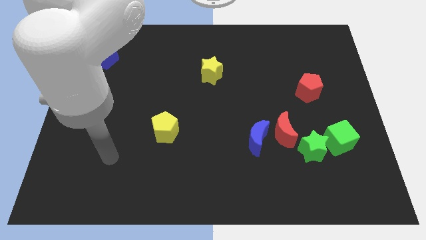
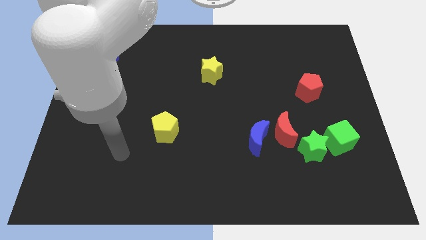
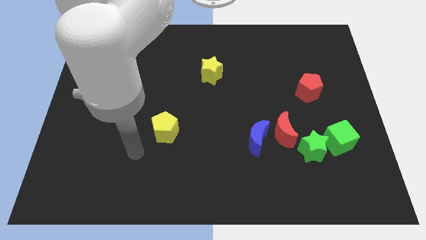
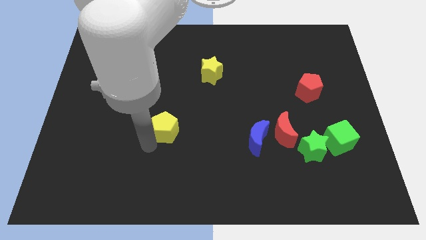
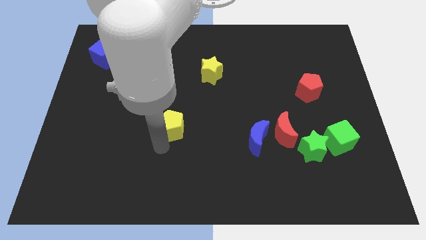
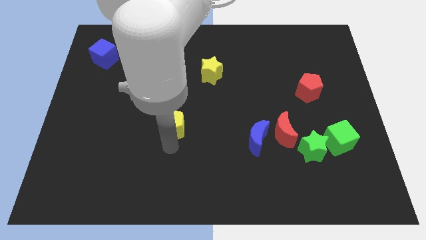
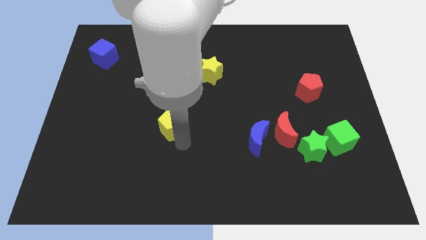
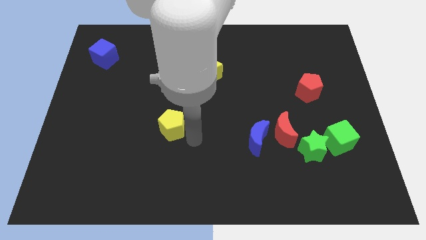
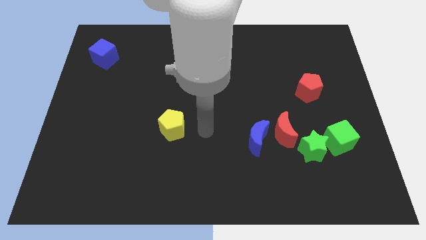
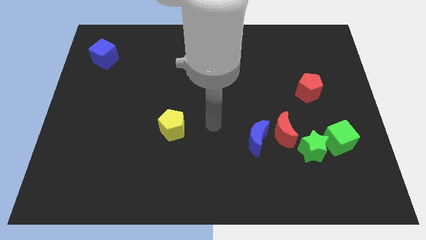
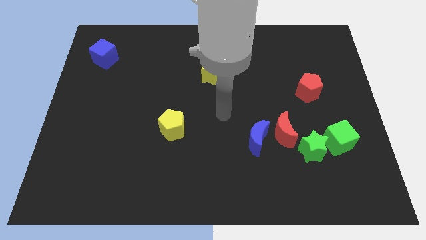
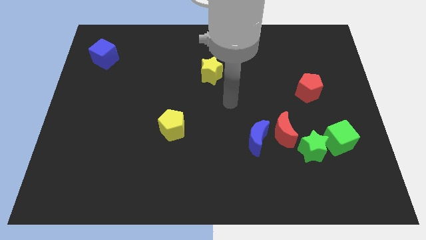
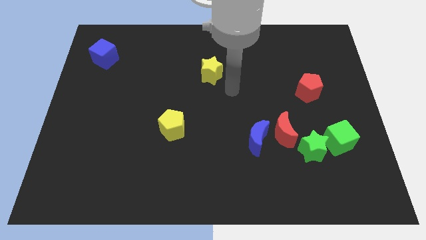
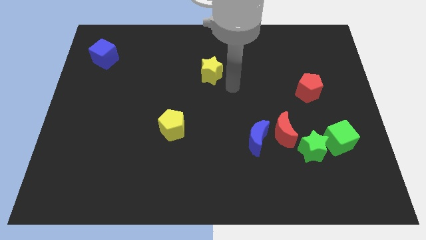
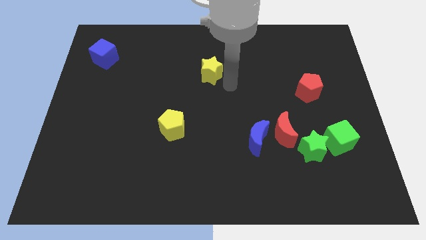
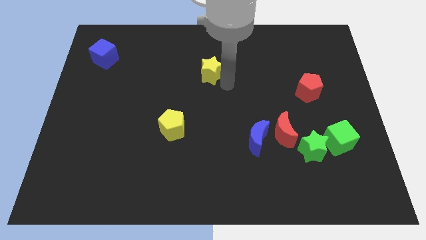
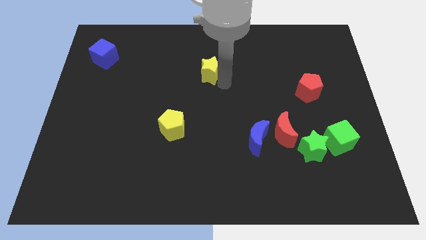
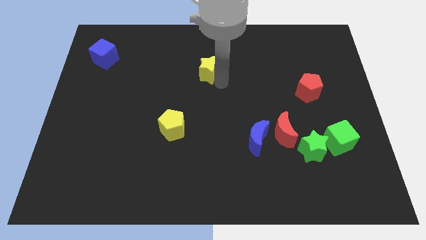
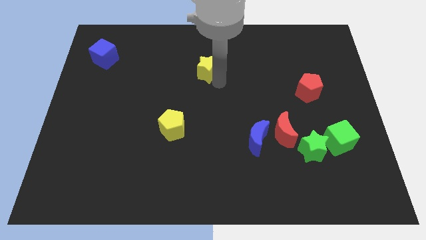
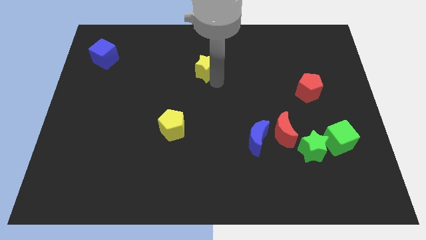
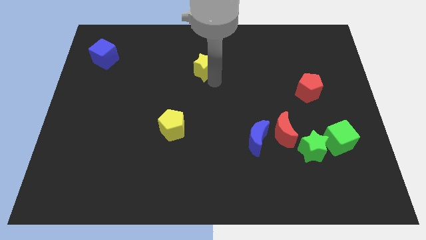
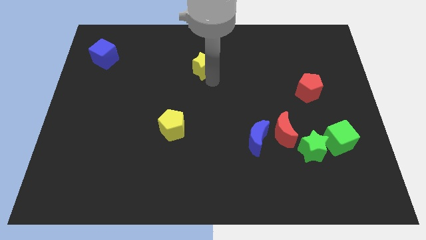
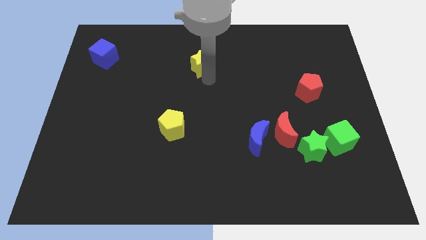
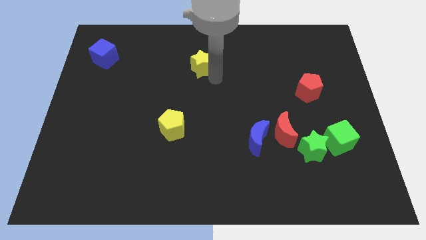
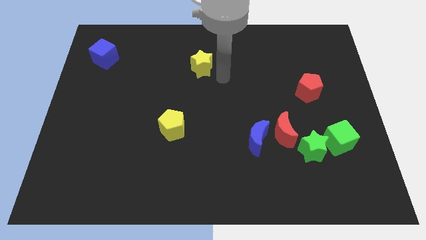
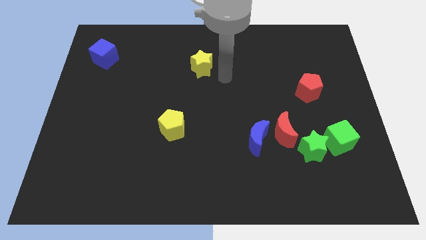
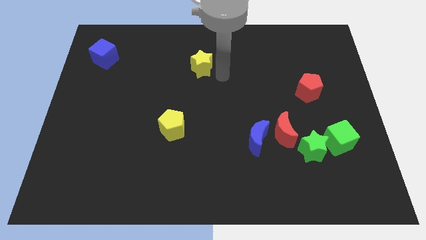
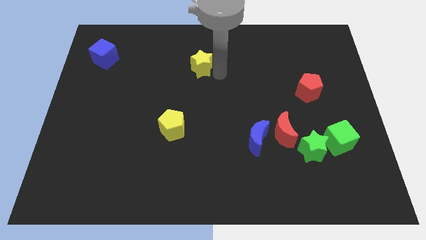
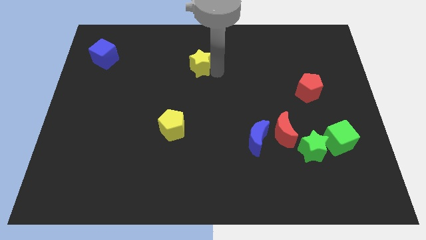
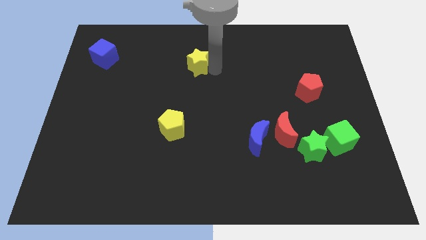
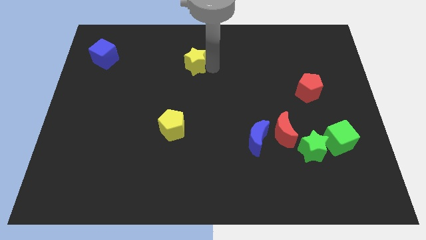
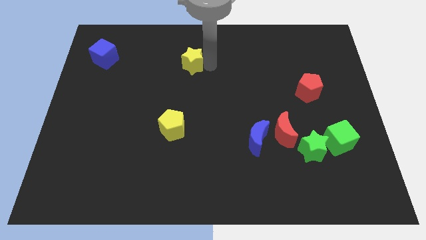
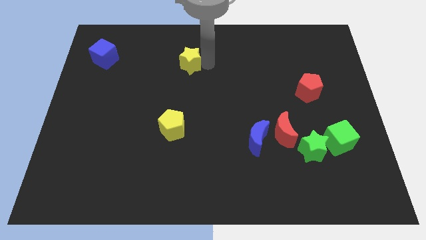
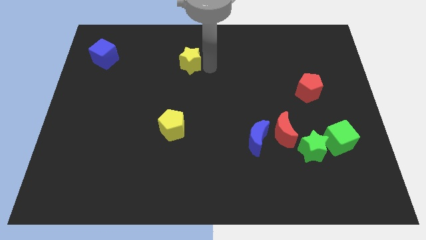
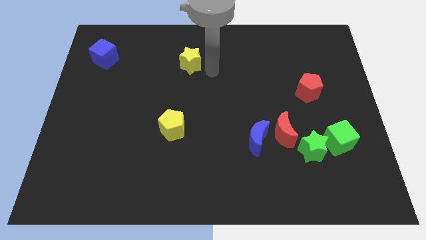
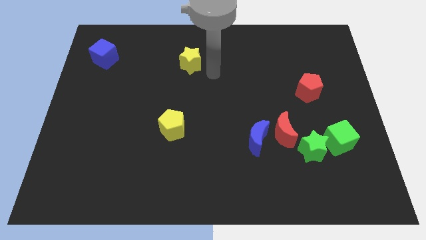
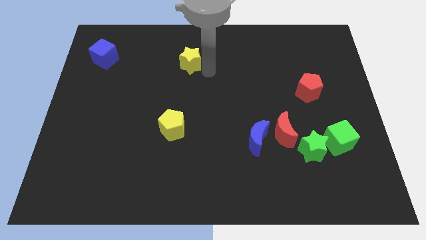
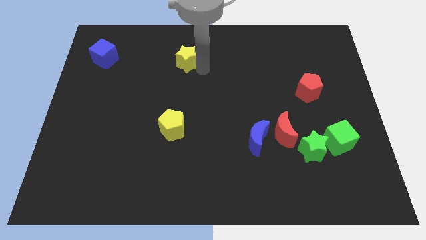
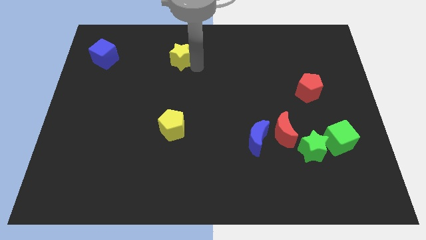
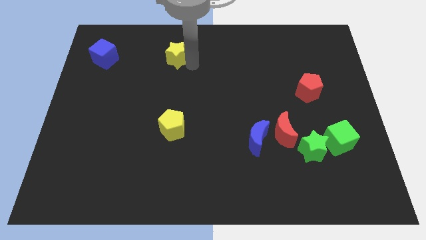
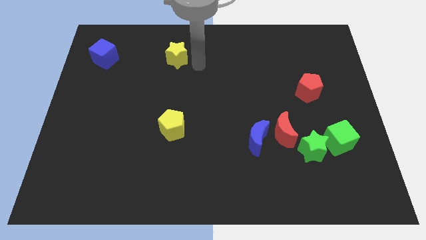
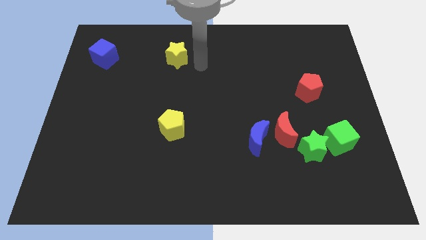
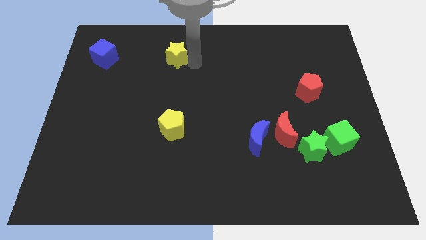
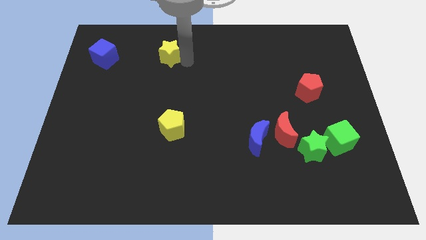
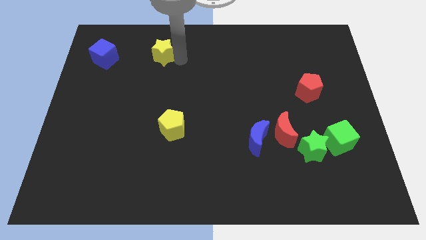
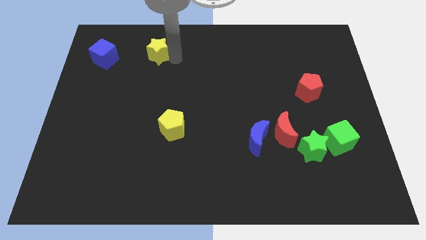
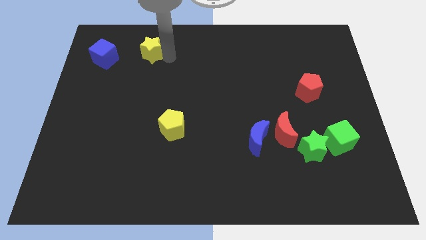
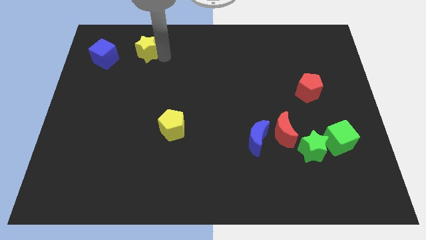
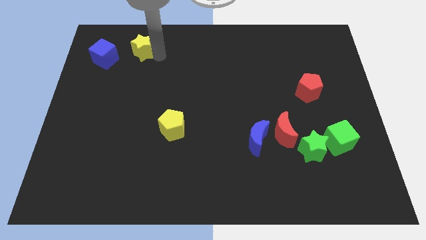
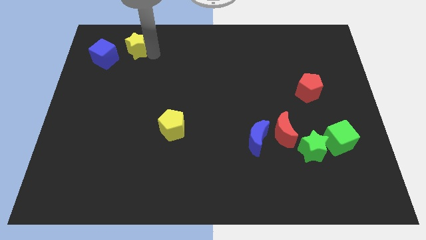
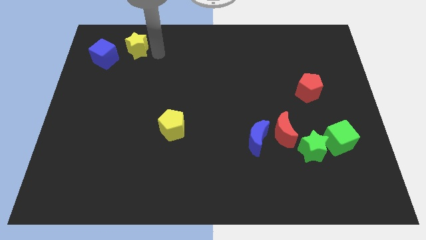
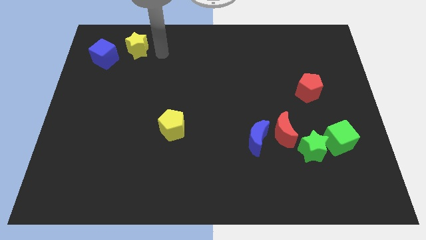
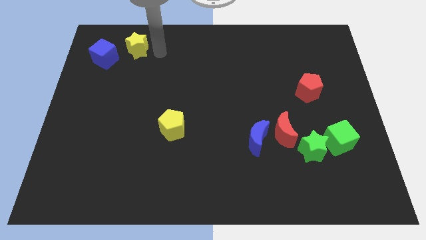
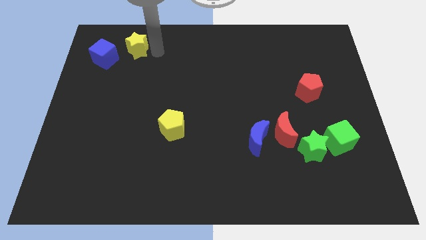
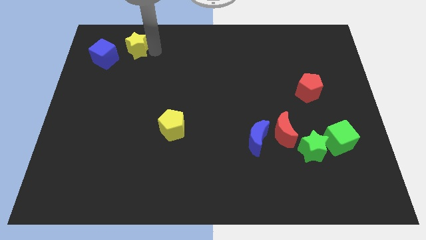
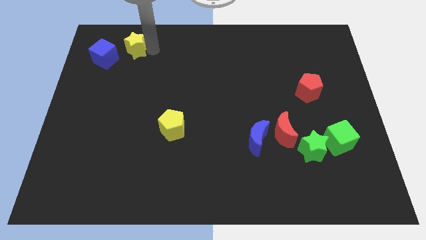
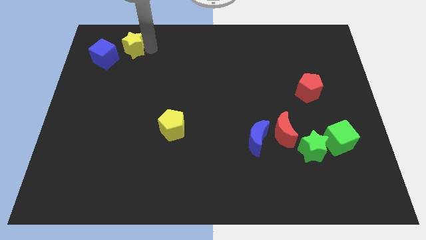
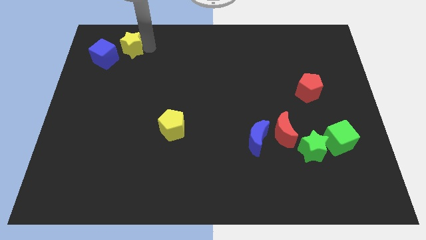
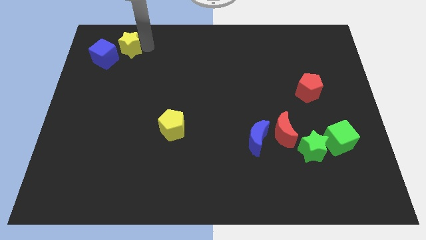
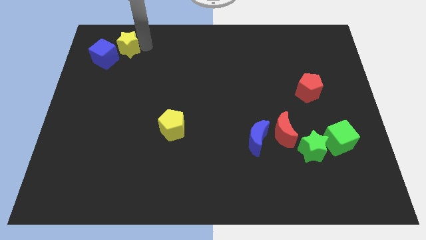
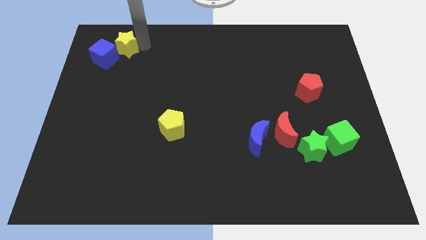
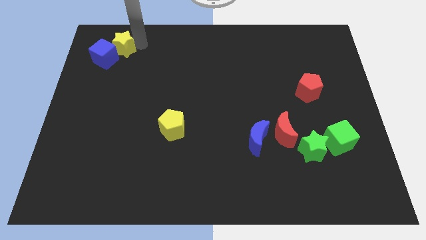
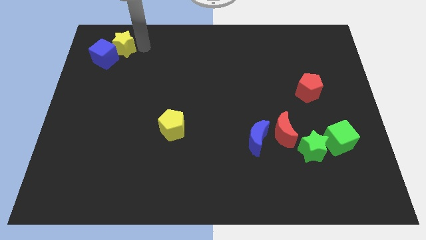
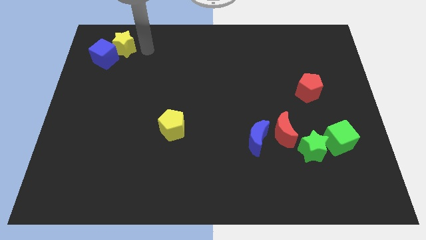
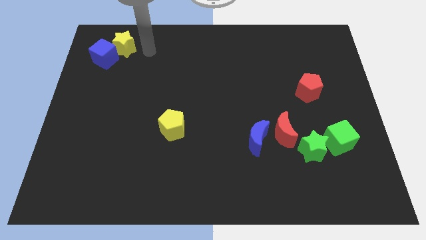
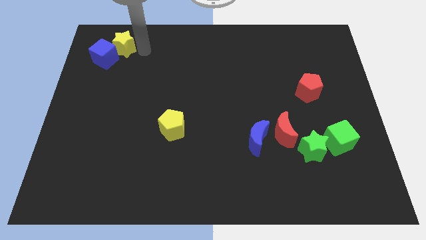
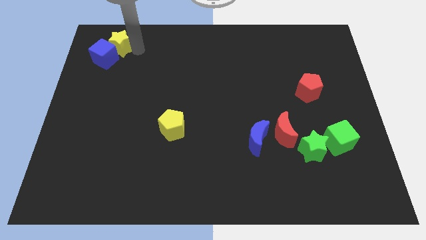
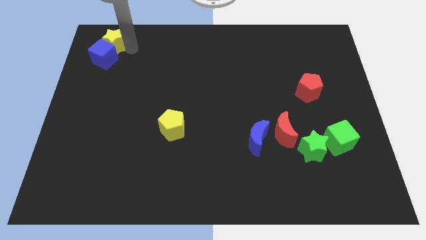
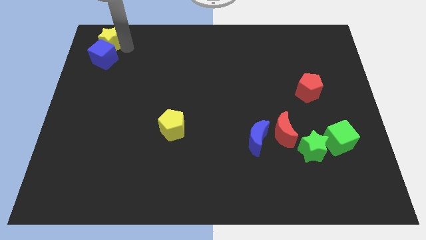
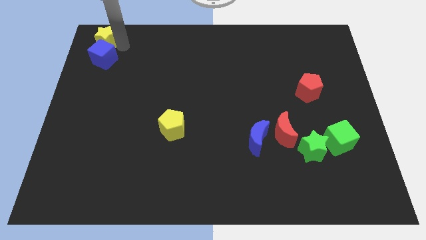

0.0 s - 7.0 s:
slide the yellow star to the upper left corner

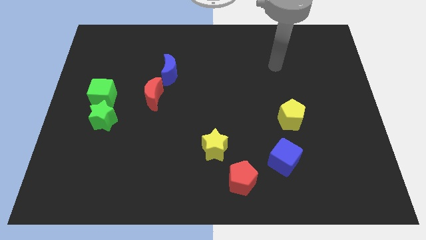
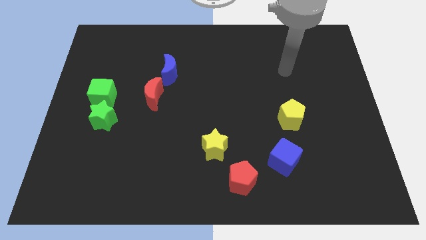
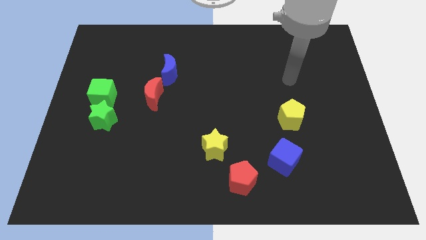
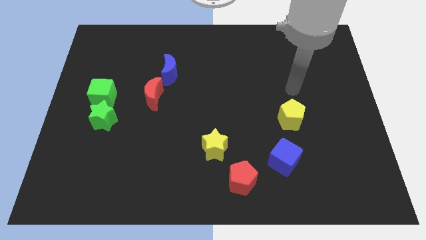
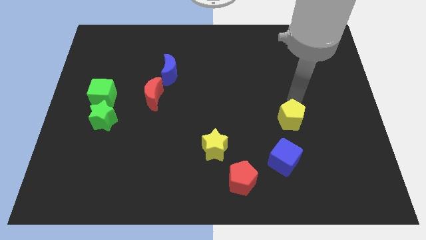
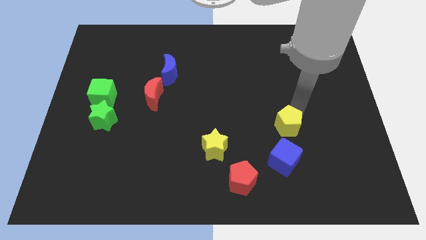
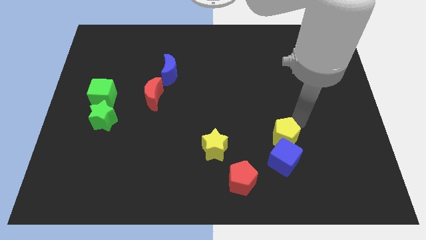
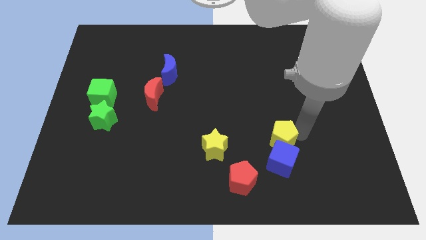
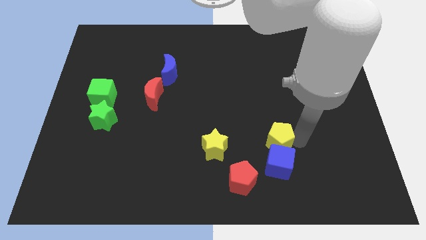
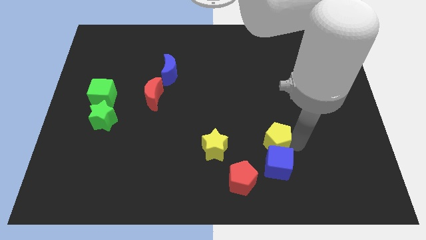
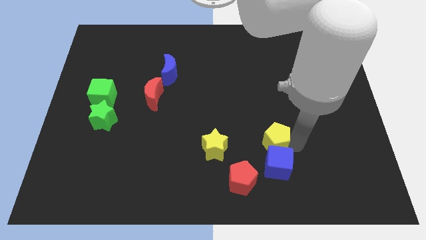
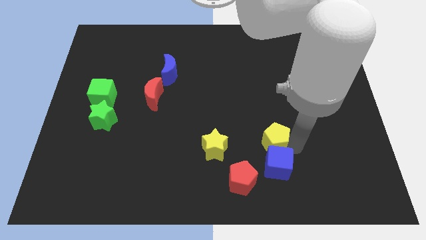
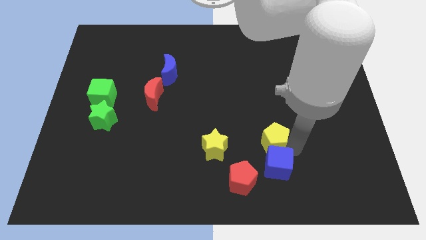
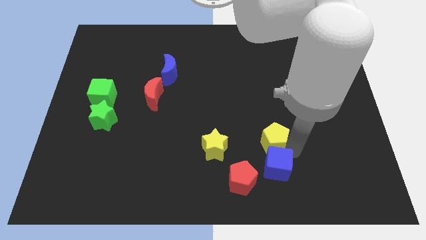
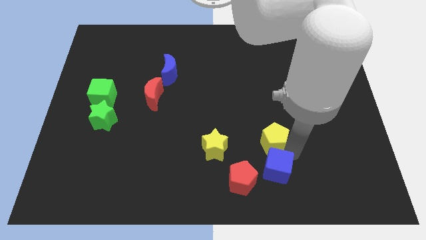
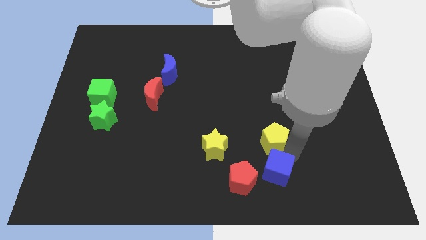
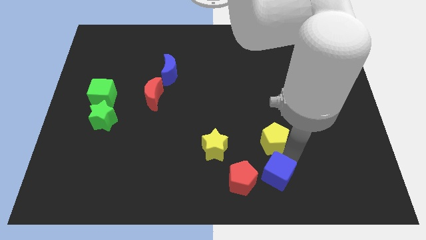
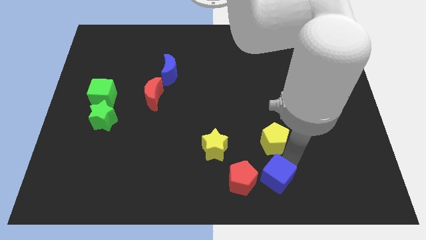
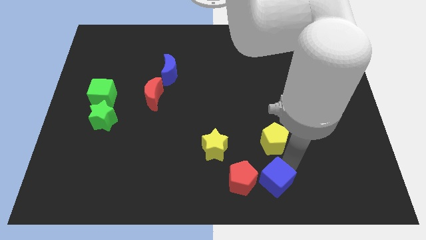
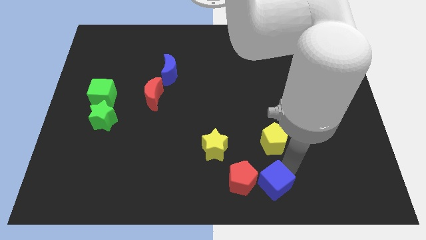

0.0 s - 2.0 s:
slide the blue cube to the bottom side
